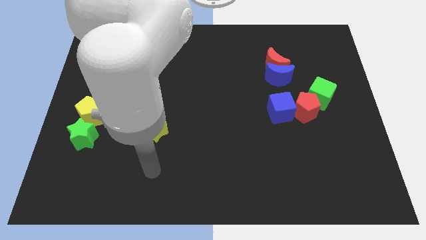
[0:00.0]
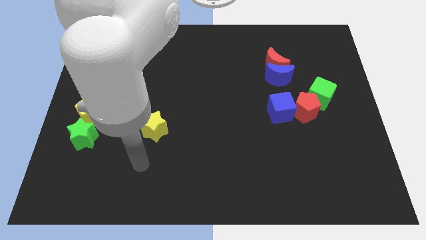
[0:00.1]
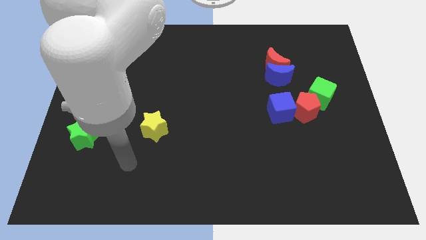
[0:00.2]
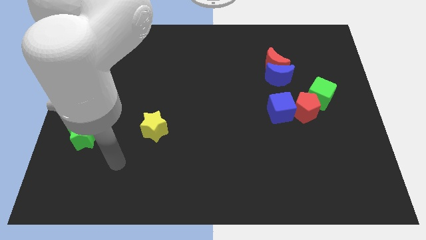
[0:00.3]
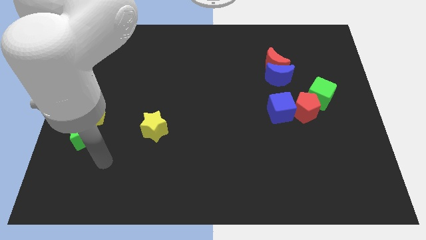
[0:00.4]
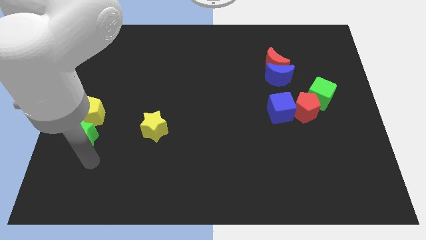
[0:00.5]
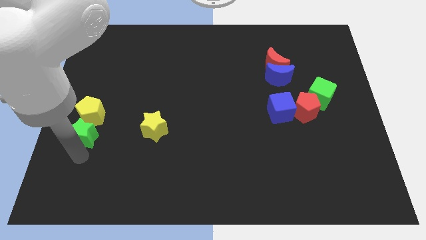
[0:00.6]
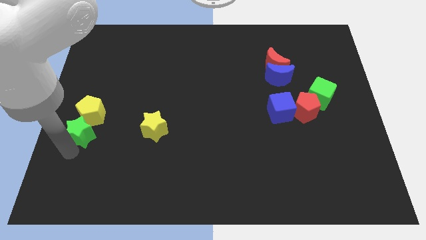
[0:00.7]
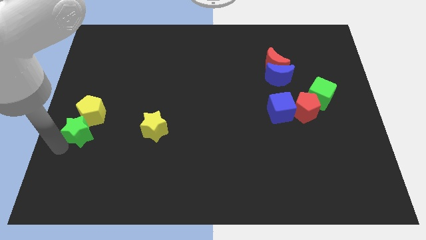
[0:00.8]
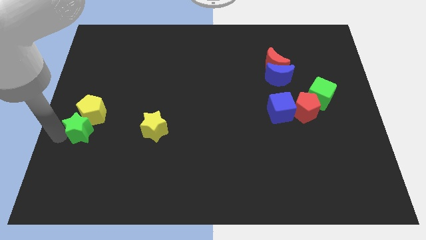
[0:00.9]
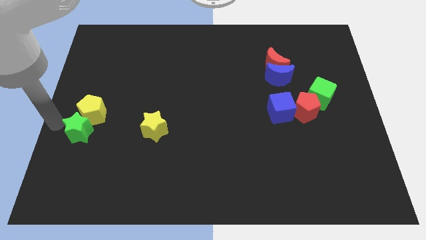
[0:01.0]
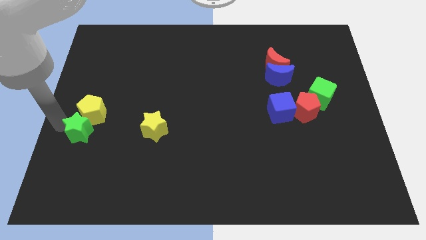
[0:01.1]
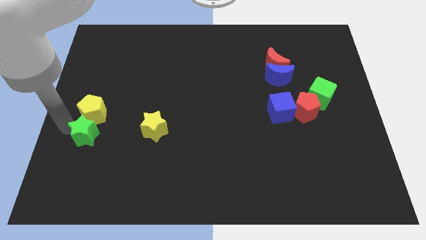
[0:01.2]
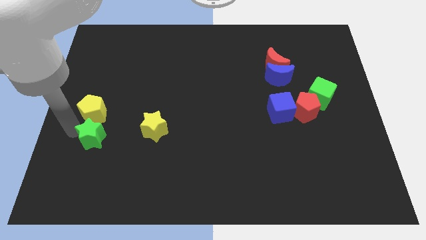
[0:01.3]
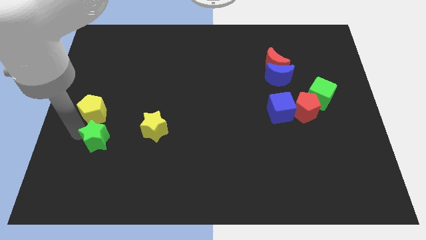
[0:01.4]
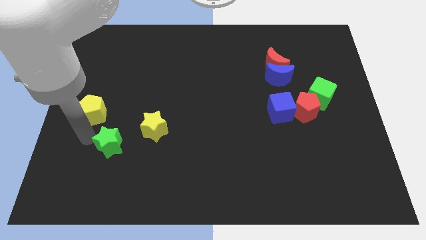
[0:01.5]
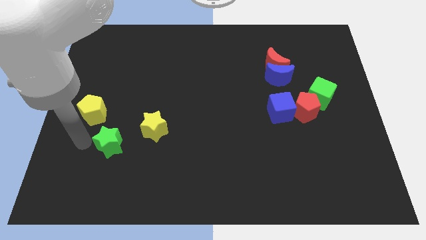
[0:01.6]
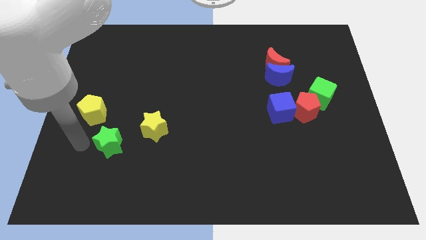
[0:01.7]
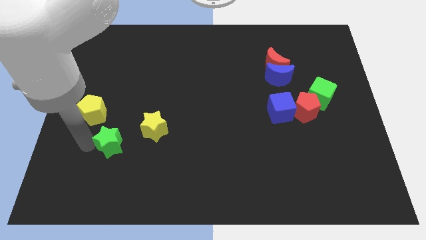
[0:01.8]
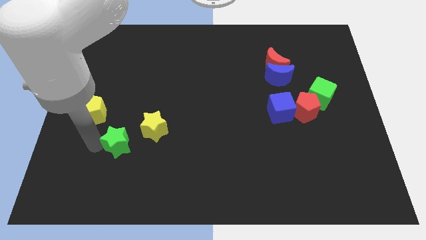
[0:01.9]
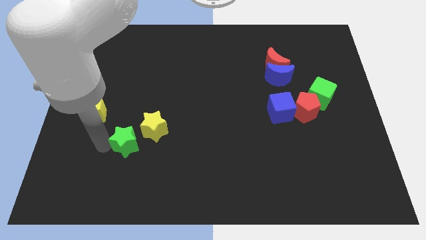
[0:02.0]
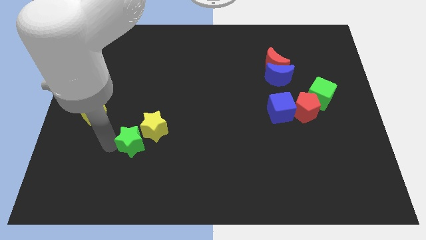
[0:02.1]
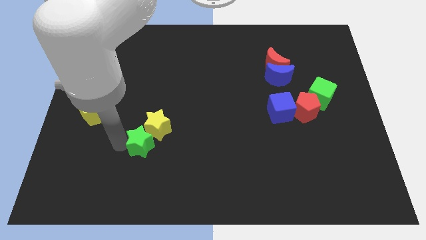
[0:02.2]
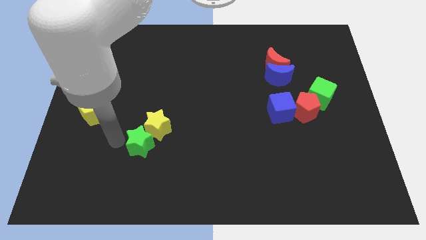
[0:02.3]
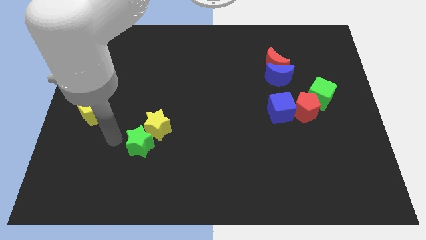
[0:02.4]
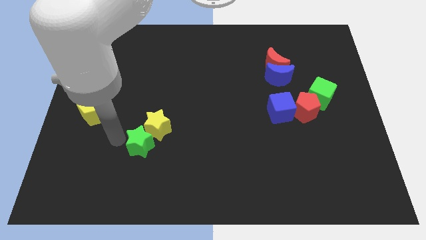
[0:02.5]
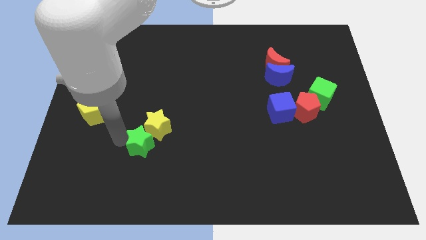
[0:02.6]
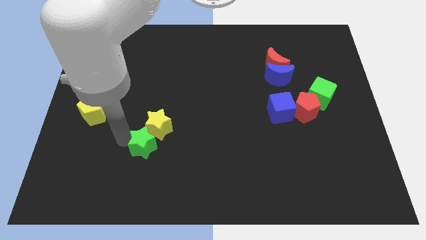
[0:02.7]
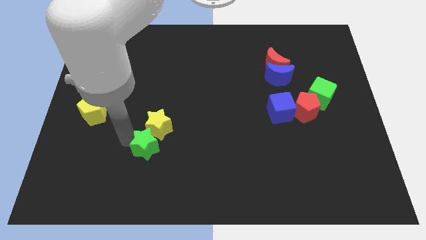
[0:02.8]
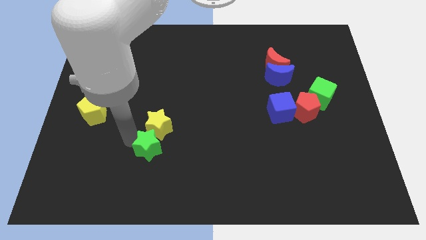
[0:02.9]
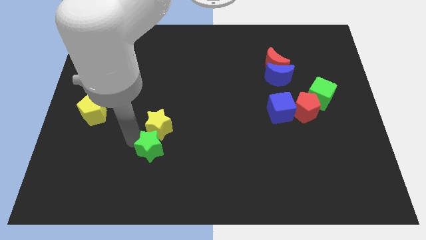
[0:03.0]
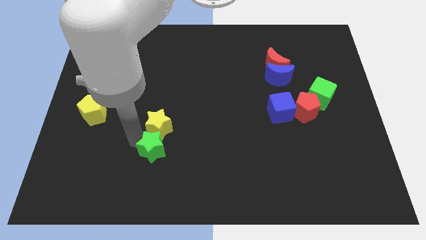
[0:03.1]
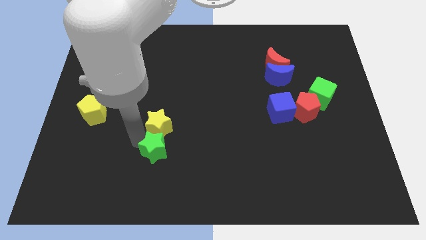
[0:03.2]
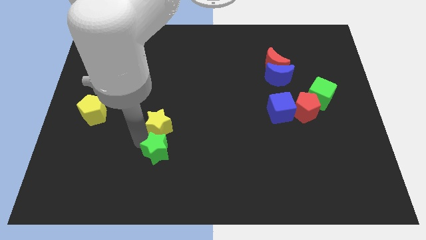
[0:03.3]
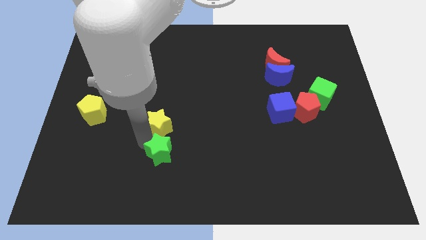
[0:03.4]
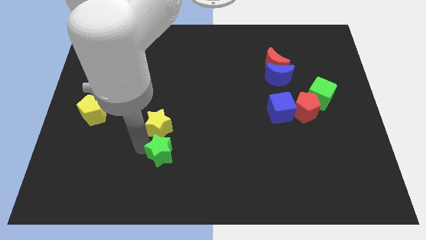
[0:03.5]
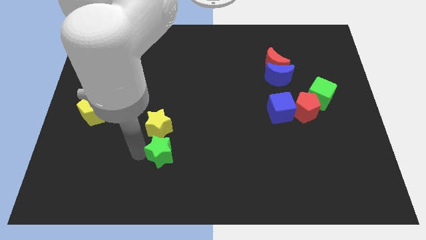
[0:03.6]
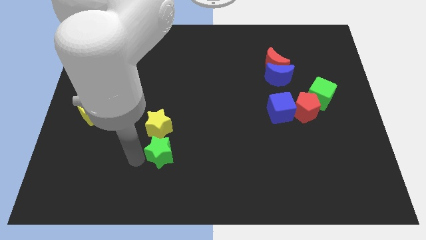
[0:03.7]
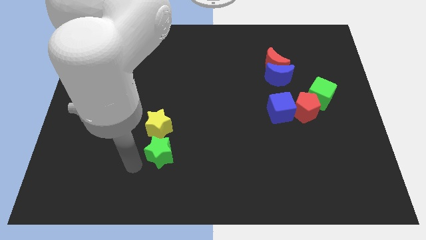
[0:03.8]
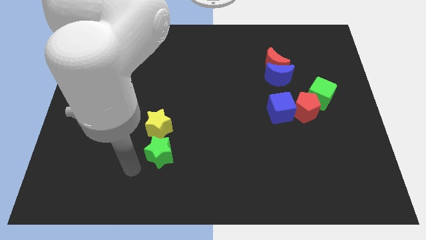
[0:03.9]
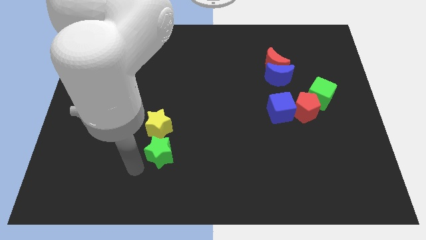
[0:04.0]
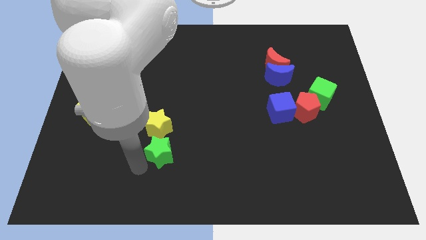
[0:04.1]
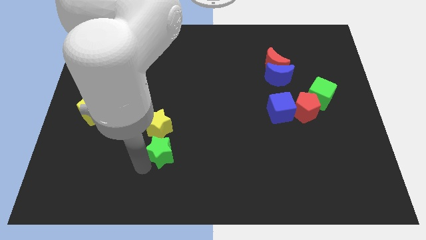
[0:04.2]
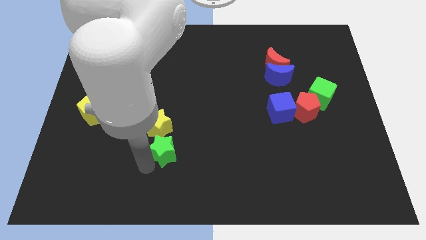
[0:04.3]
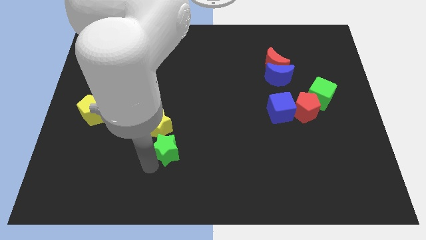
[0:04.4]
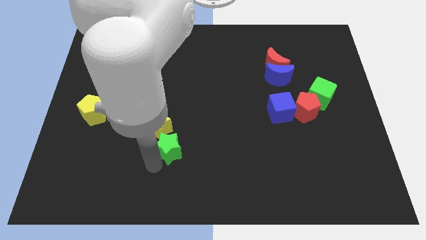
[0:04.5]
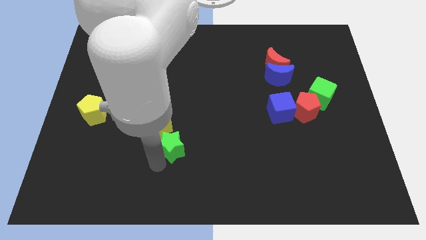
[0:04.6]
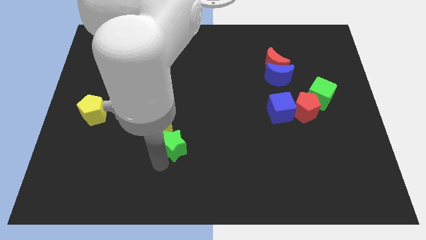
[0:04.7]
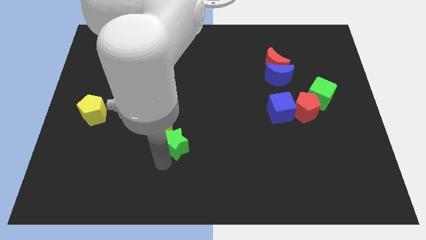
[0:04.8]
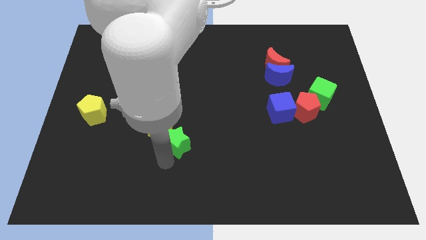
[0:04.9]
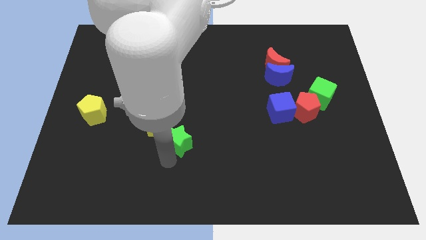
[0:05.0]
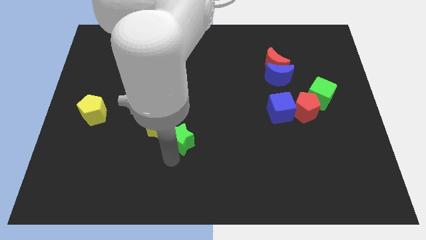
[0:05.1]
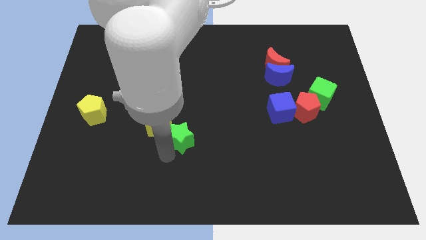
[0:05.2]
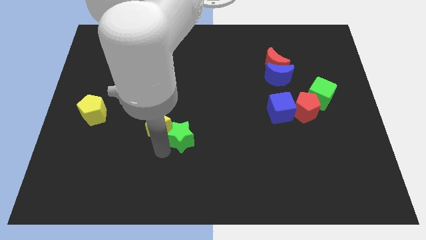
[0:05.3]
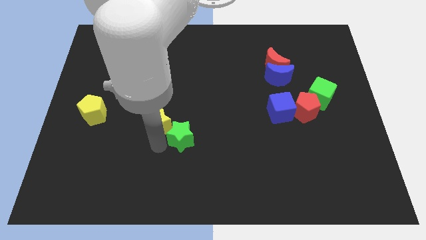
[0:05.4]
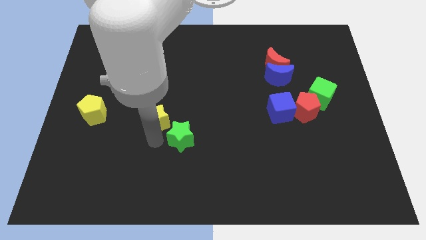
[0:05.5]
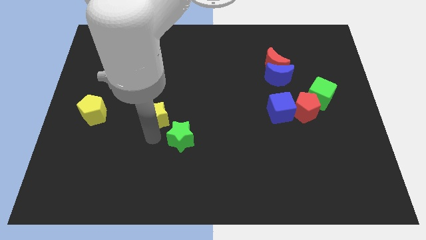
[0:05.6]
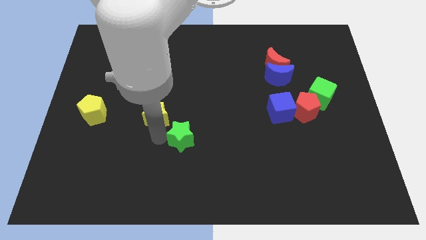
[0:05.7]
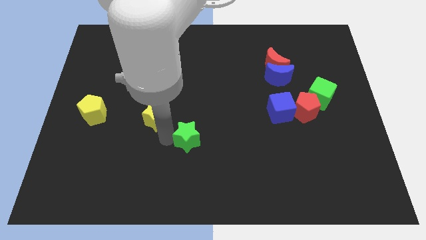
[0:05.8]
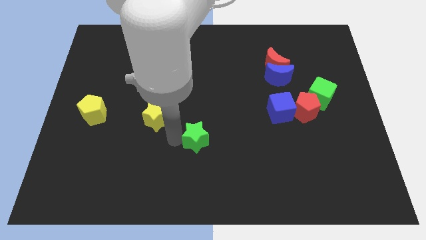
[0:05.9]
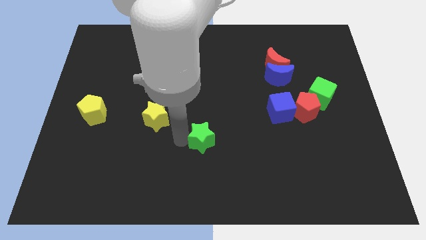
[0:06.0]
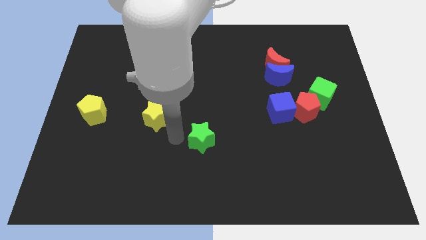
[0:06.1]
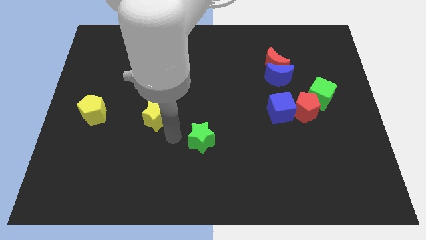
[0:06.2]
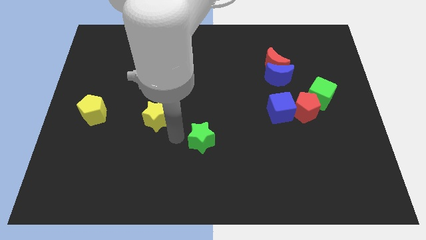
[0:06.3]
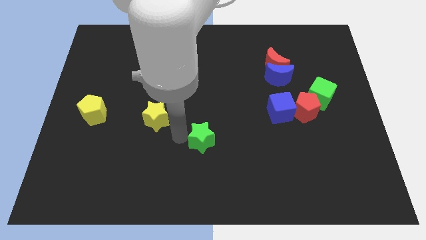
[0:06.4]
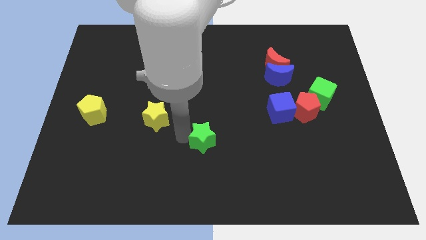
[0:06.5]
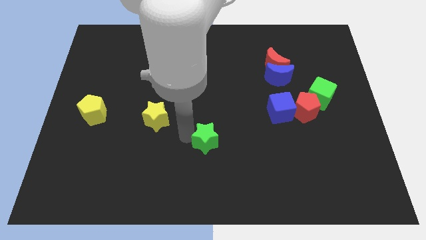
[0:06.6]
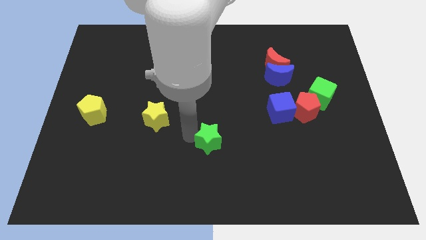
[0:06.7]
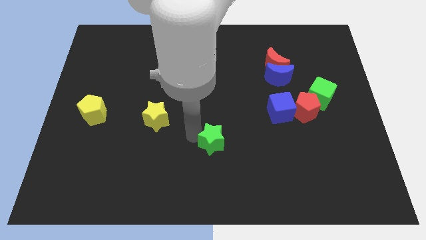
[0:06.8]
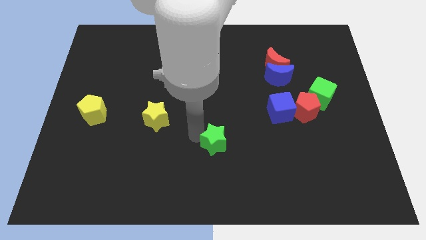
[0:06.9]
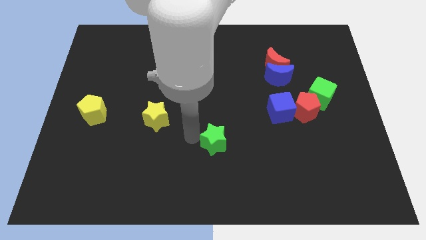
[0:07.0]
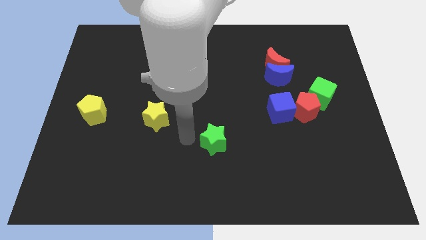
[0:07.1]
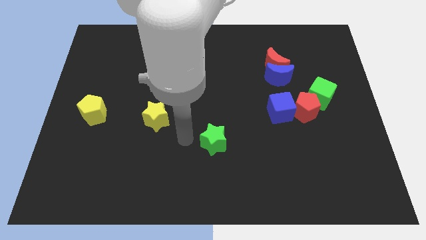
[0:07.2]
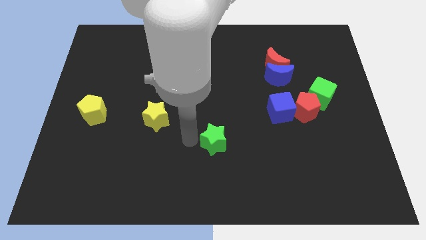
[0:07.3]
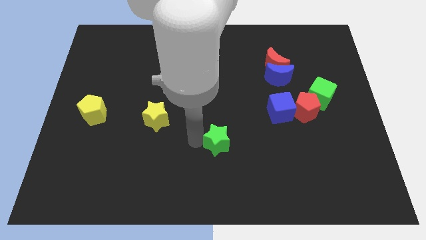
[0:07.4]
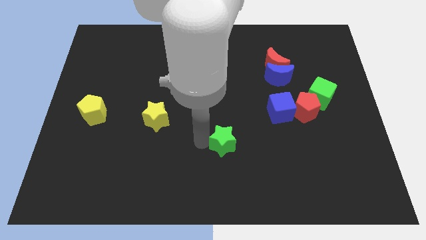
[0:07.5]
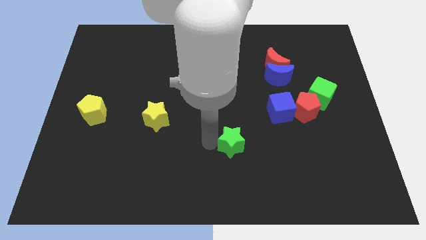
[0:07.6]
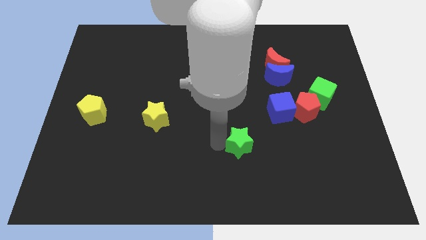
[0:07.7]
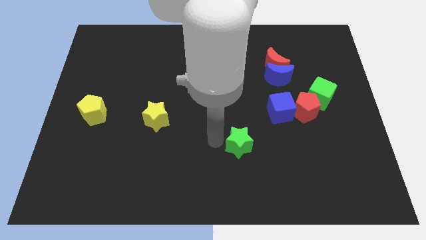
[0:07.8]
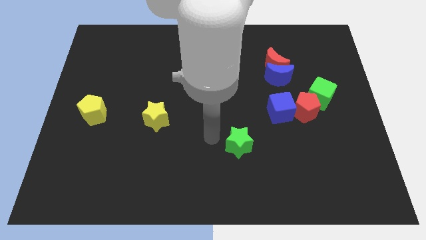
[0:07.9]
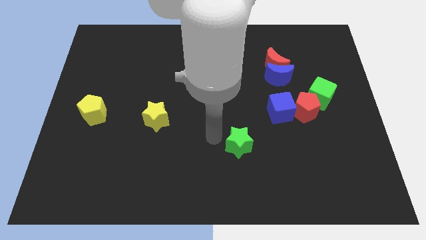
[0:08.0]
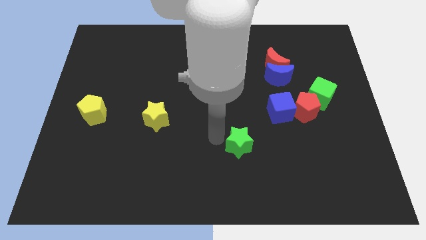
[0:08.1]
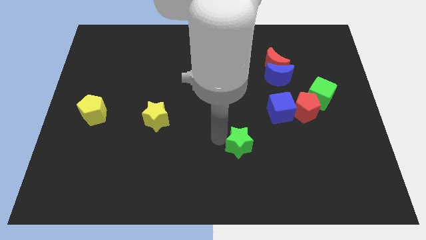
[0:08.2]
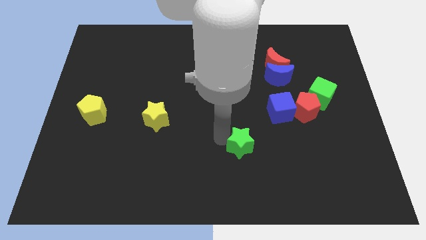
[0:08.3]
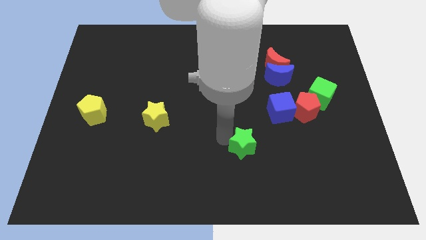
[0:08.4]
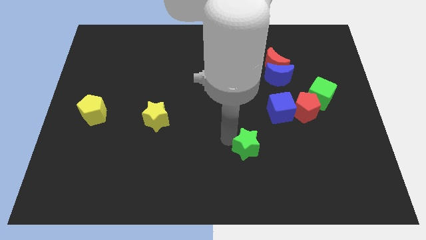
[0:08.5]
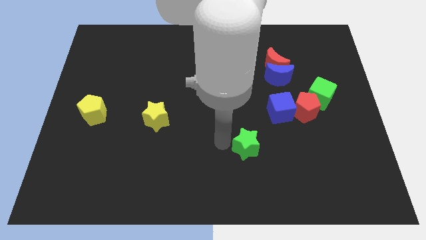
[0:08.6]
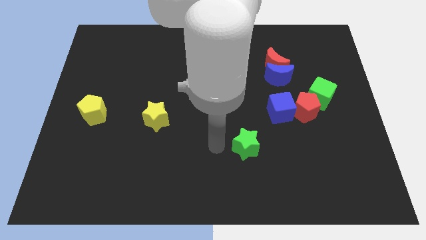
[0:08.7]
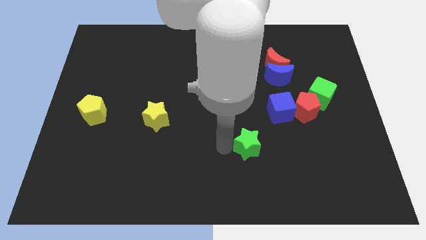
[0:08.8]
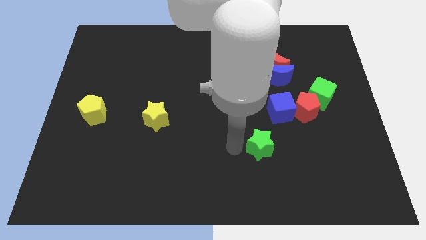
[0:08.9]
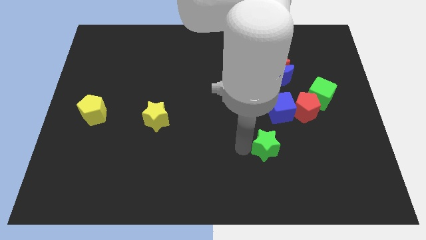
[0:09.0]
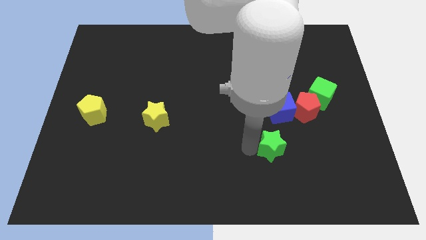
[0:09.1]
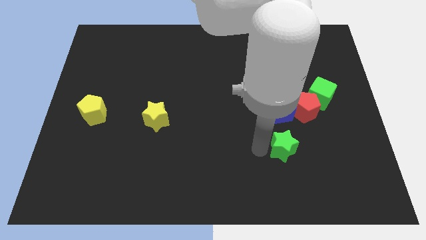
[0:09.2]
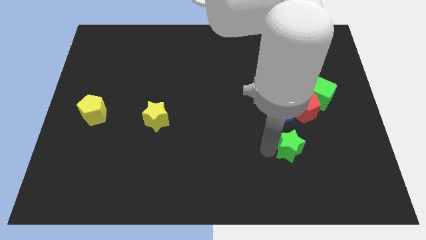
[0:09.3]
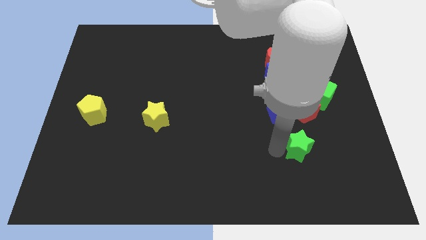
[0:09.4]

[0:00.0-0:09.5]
push the green star to the bottom side of the red pentagon
